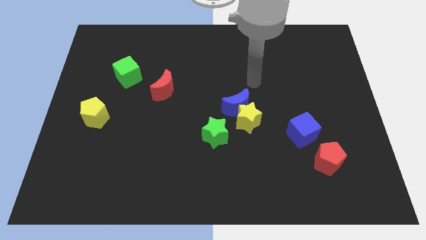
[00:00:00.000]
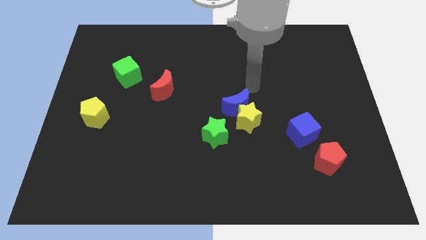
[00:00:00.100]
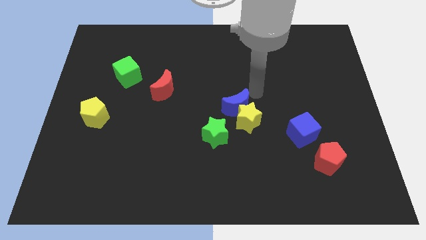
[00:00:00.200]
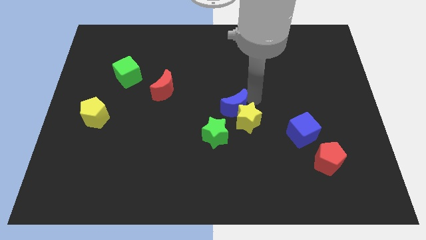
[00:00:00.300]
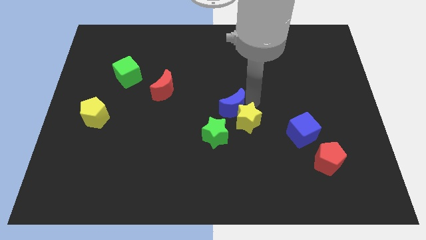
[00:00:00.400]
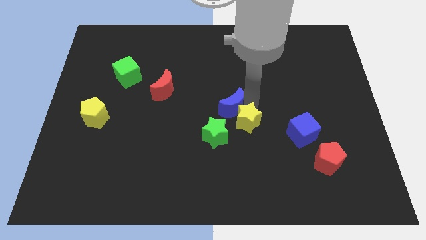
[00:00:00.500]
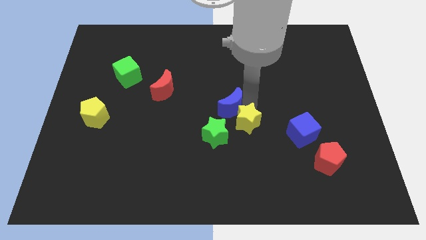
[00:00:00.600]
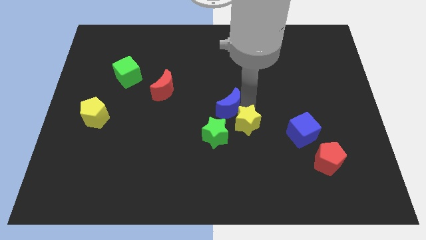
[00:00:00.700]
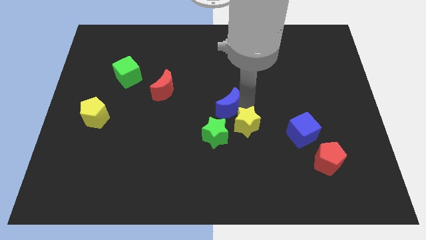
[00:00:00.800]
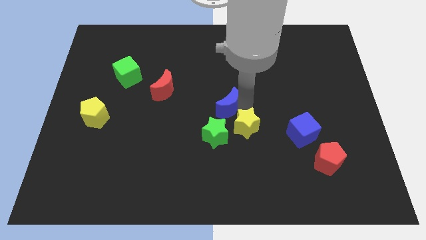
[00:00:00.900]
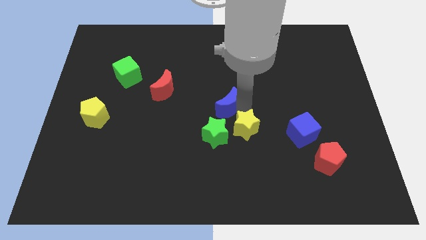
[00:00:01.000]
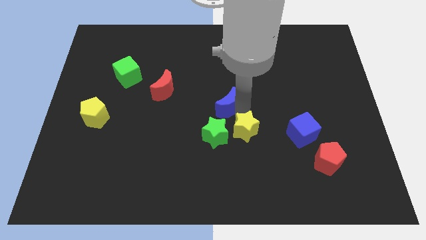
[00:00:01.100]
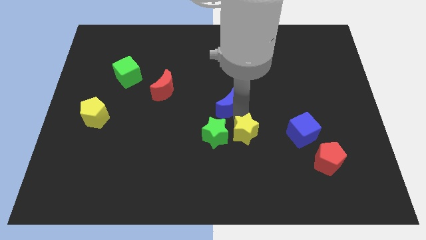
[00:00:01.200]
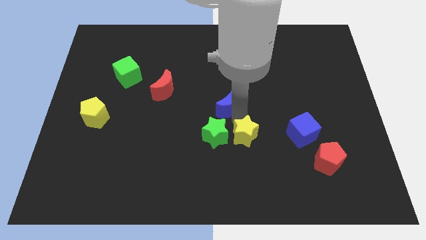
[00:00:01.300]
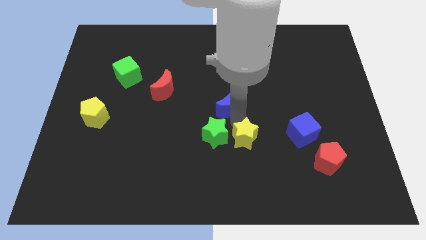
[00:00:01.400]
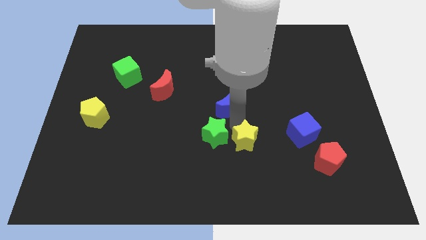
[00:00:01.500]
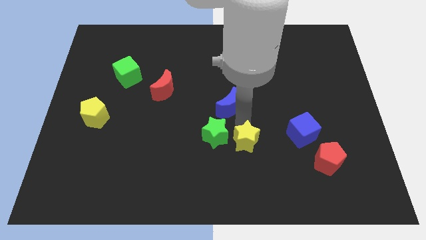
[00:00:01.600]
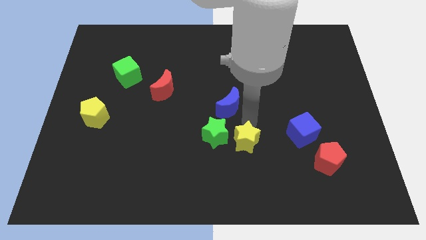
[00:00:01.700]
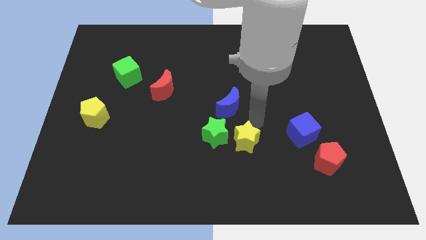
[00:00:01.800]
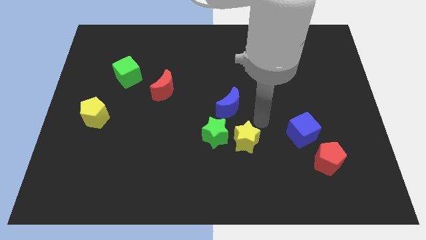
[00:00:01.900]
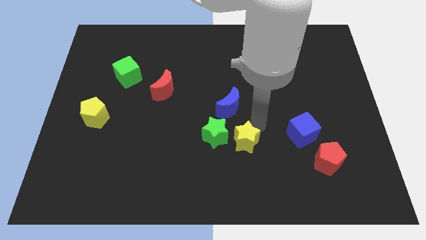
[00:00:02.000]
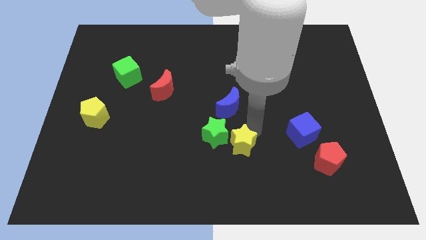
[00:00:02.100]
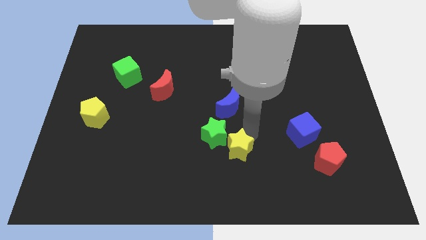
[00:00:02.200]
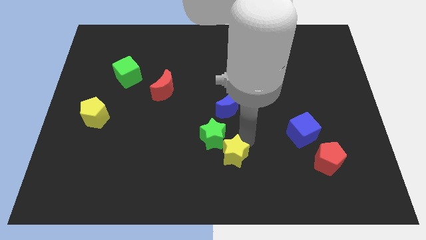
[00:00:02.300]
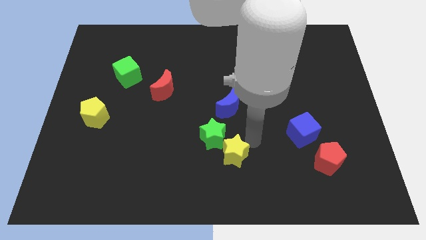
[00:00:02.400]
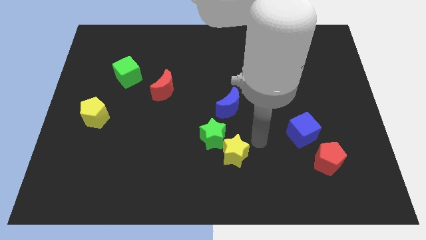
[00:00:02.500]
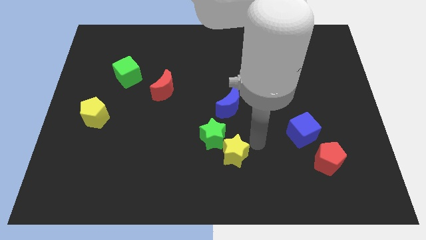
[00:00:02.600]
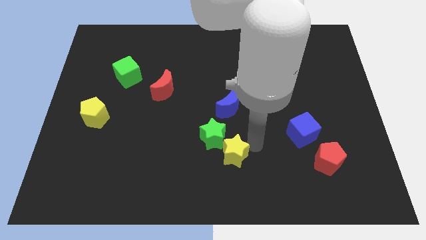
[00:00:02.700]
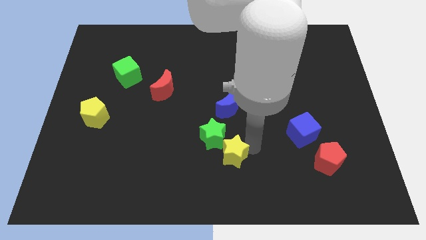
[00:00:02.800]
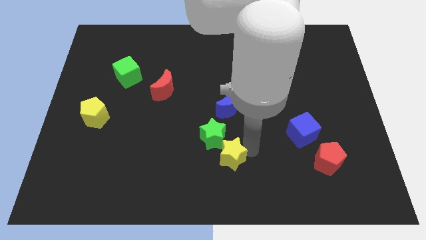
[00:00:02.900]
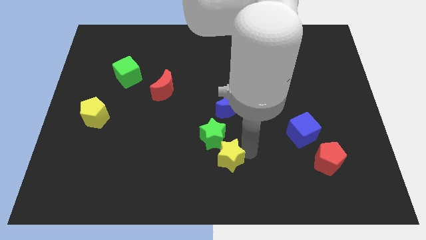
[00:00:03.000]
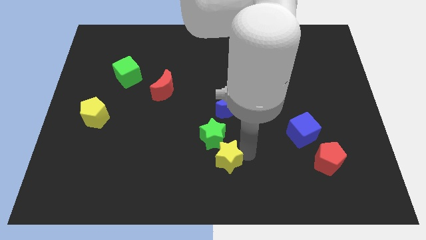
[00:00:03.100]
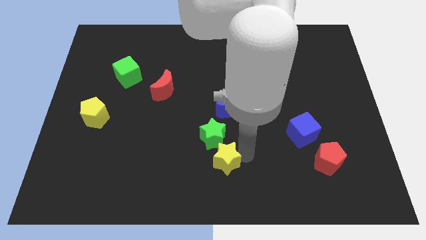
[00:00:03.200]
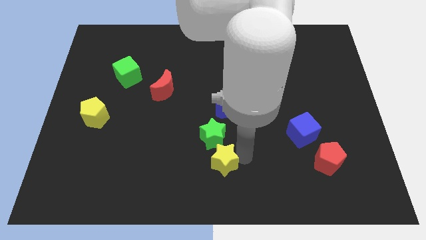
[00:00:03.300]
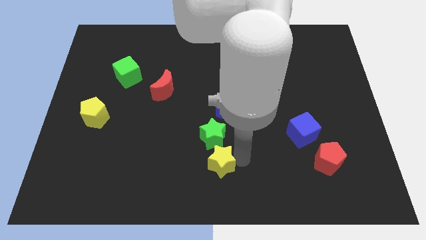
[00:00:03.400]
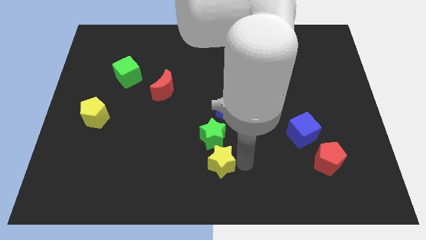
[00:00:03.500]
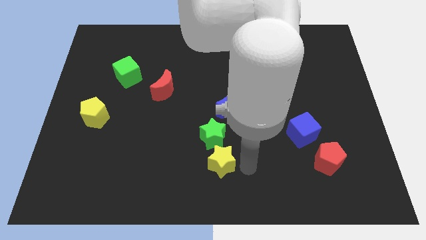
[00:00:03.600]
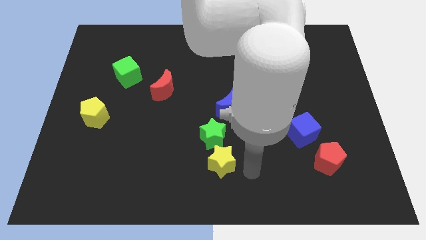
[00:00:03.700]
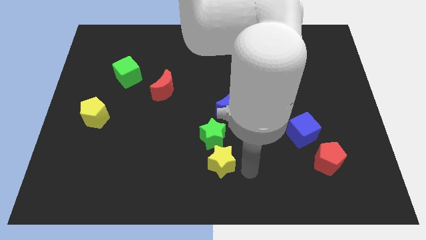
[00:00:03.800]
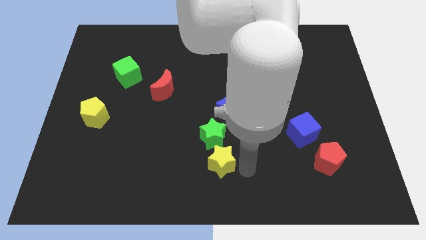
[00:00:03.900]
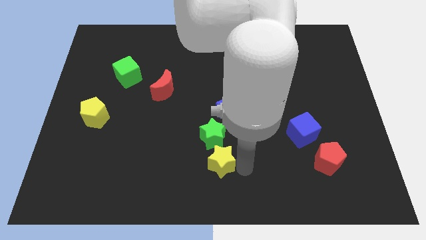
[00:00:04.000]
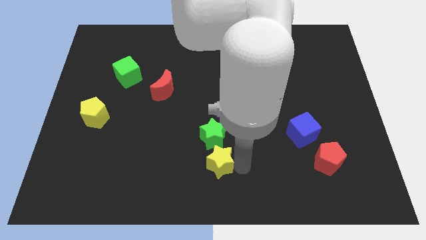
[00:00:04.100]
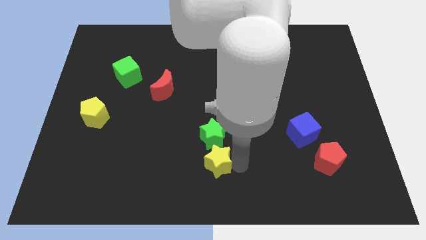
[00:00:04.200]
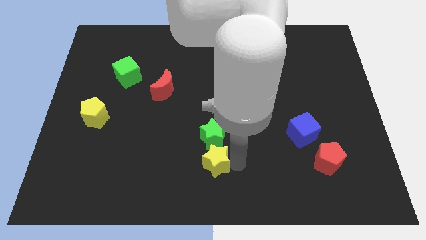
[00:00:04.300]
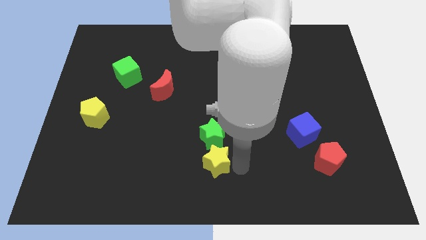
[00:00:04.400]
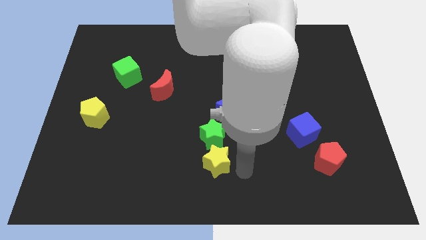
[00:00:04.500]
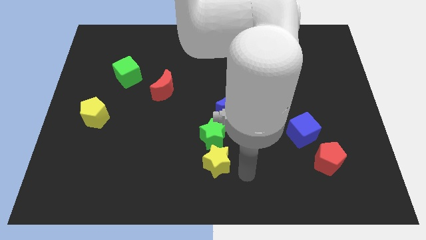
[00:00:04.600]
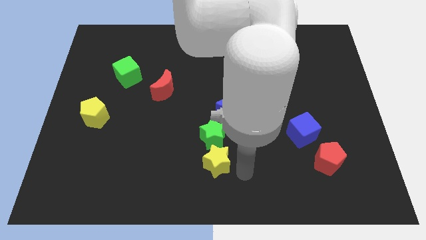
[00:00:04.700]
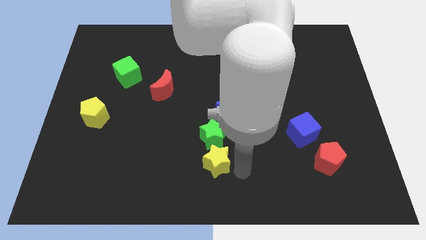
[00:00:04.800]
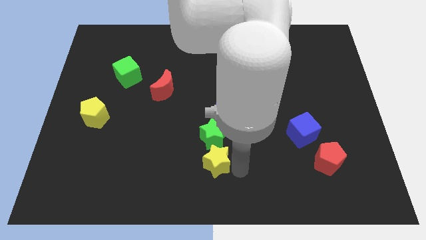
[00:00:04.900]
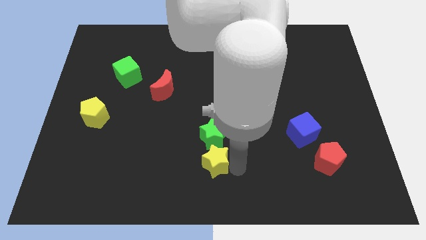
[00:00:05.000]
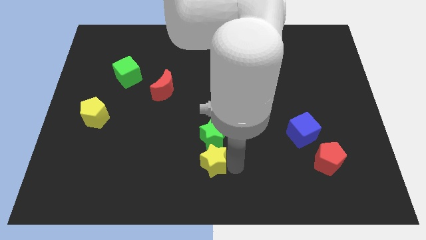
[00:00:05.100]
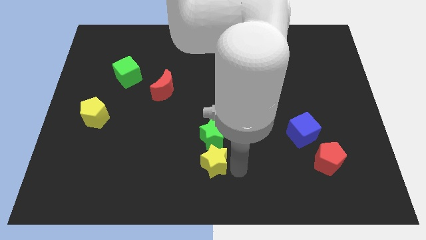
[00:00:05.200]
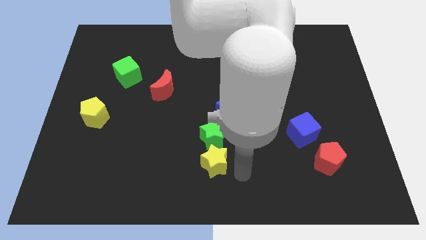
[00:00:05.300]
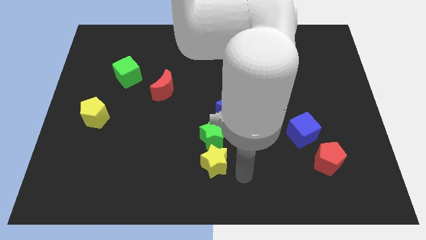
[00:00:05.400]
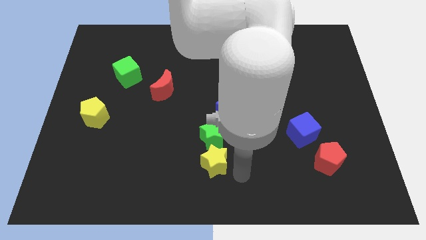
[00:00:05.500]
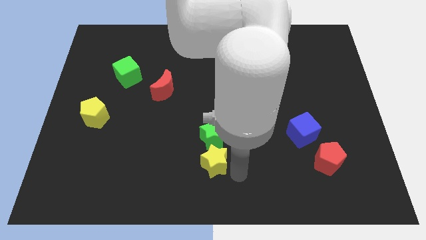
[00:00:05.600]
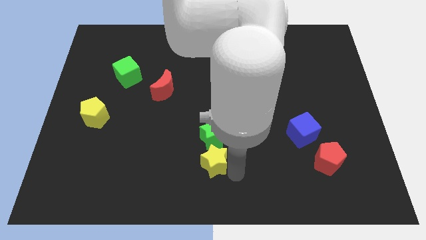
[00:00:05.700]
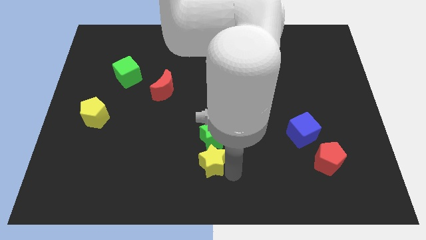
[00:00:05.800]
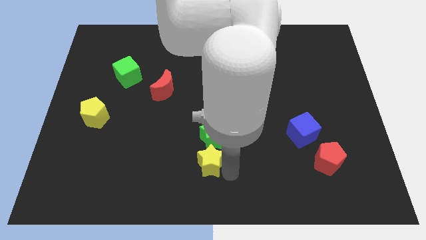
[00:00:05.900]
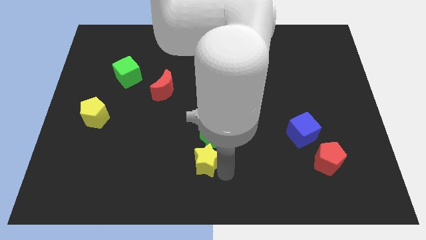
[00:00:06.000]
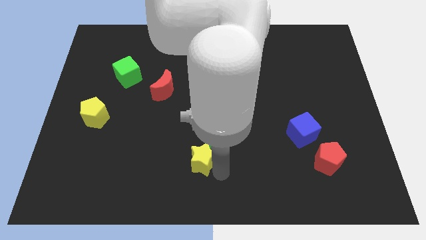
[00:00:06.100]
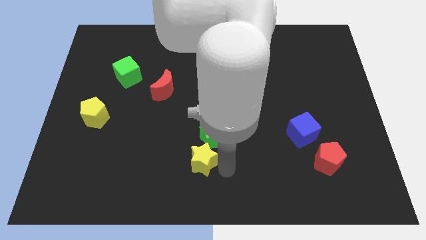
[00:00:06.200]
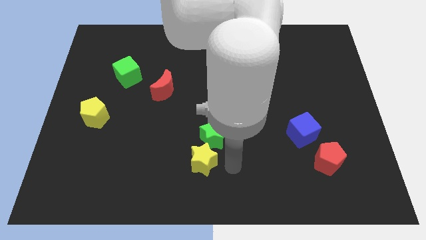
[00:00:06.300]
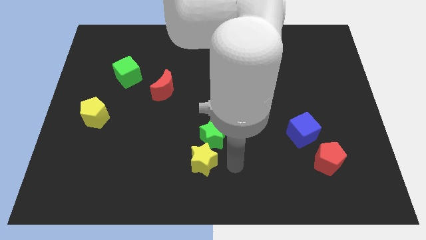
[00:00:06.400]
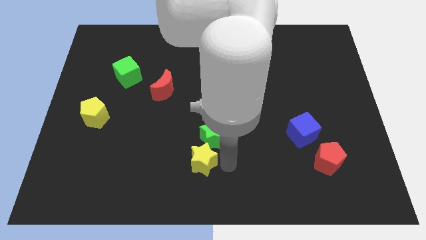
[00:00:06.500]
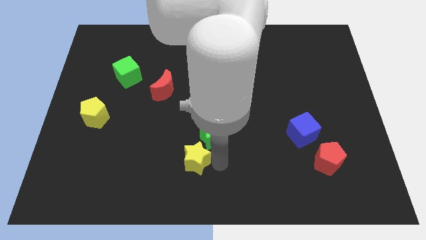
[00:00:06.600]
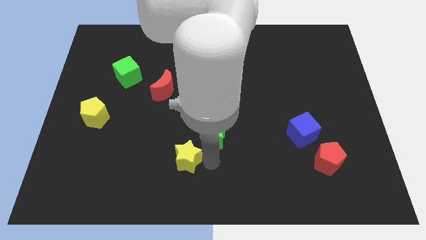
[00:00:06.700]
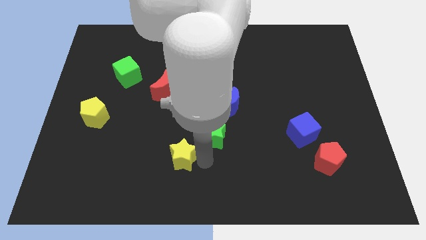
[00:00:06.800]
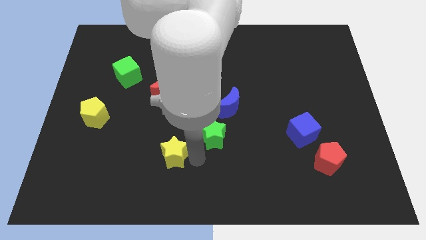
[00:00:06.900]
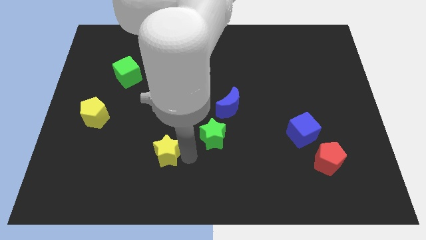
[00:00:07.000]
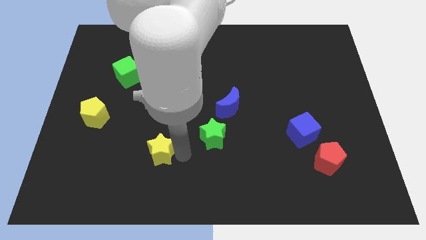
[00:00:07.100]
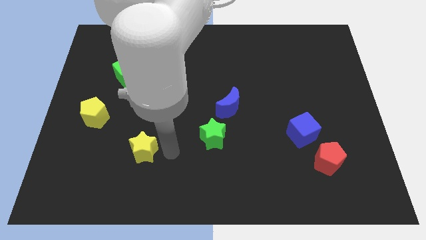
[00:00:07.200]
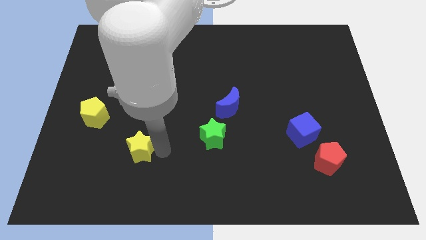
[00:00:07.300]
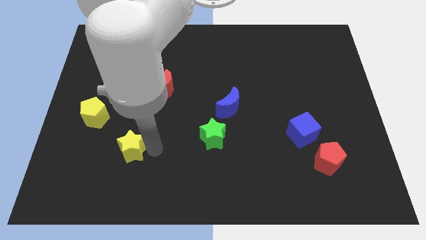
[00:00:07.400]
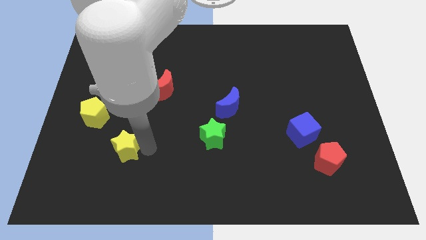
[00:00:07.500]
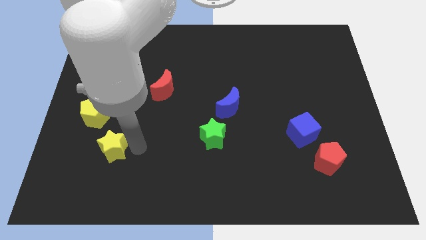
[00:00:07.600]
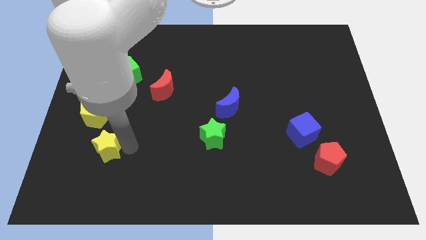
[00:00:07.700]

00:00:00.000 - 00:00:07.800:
put the yellow star below the yellow pentagon

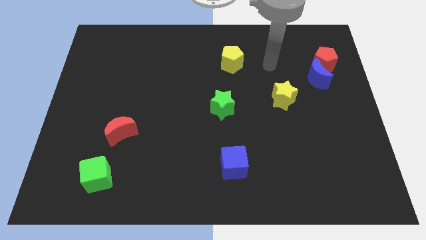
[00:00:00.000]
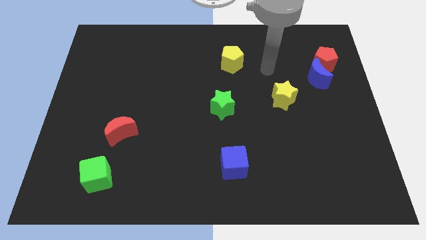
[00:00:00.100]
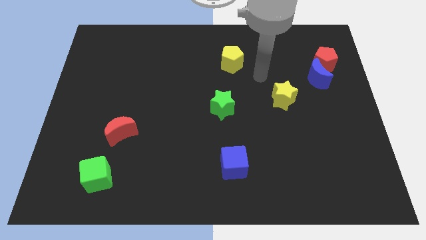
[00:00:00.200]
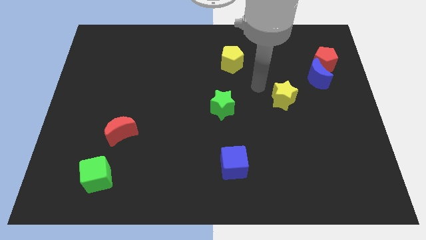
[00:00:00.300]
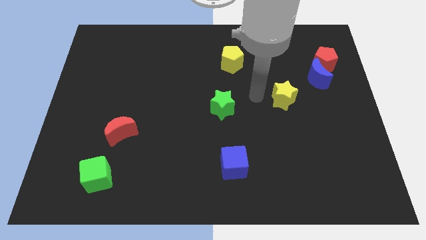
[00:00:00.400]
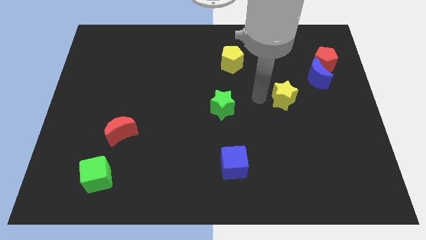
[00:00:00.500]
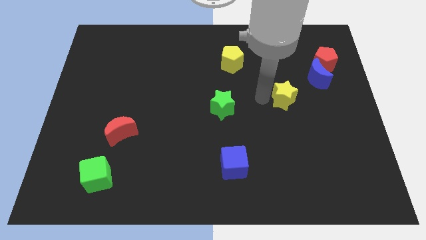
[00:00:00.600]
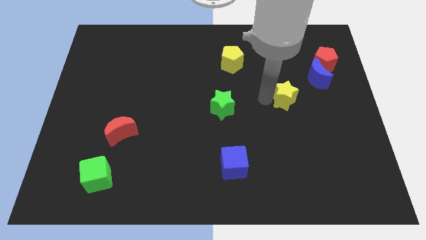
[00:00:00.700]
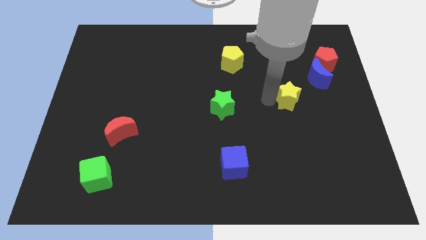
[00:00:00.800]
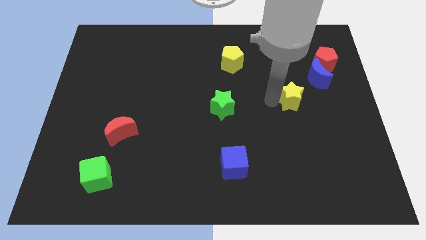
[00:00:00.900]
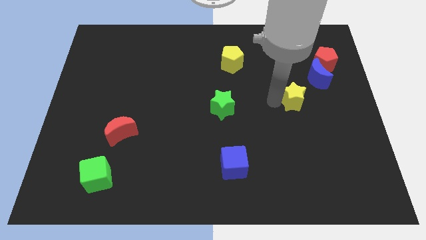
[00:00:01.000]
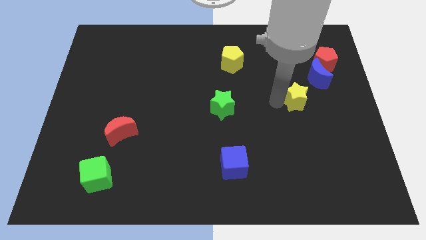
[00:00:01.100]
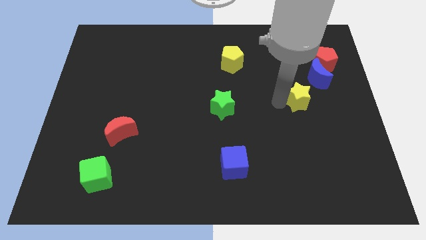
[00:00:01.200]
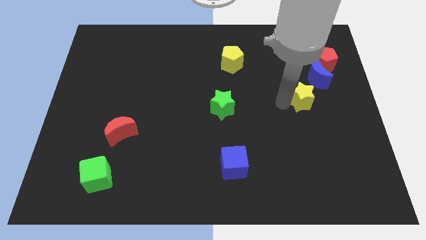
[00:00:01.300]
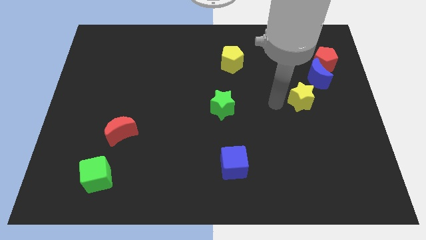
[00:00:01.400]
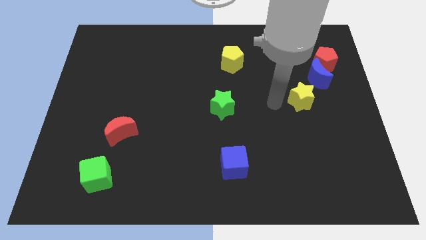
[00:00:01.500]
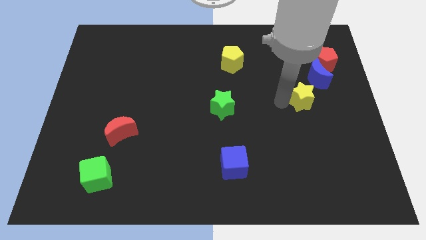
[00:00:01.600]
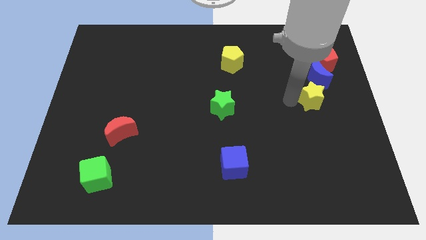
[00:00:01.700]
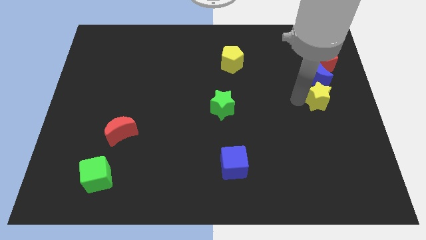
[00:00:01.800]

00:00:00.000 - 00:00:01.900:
push the yellow star to the bottom of the red pentagon
